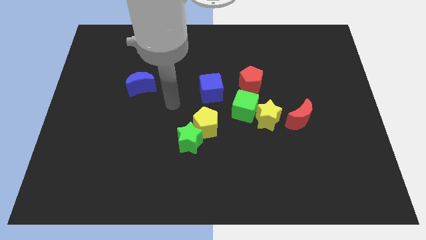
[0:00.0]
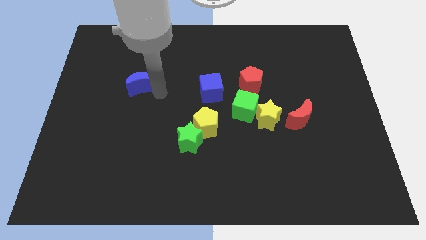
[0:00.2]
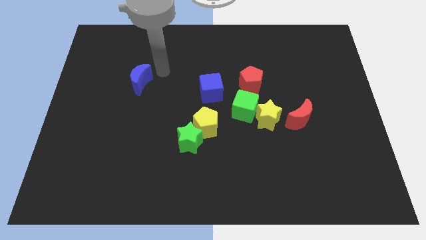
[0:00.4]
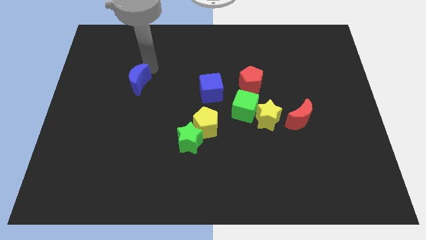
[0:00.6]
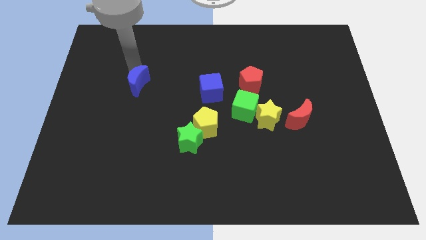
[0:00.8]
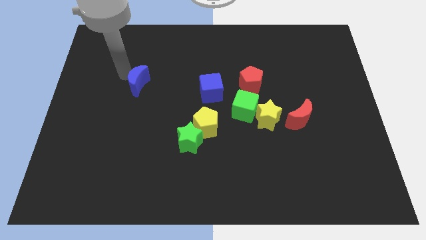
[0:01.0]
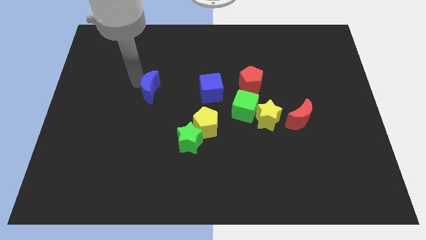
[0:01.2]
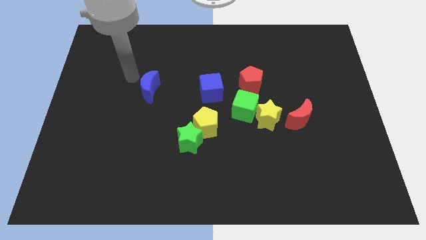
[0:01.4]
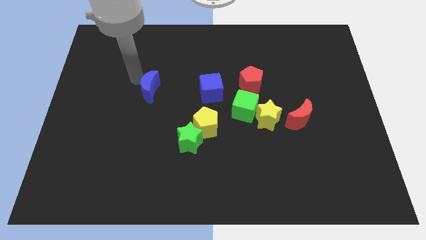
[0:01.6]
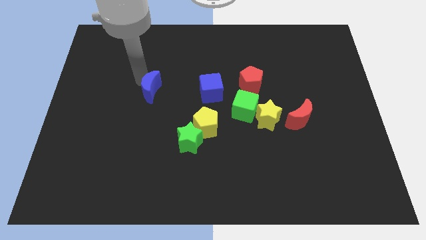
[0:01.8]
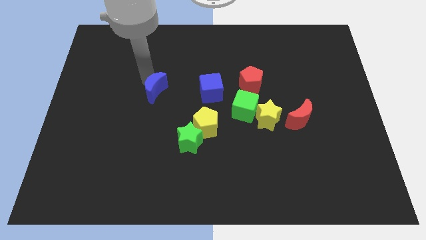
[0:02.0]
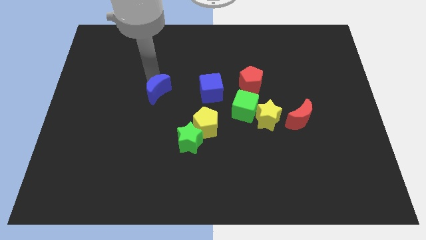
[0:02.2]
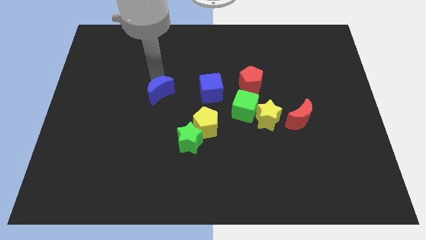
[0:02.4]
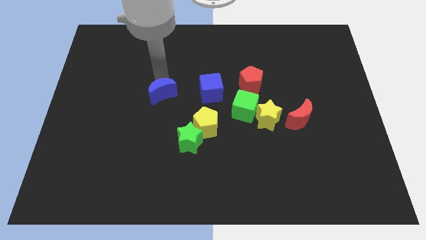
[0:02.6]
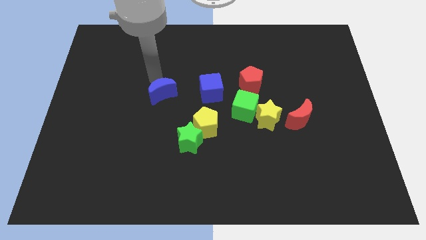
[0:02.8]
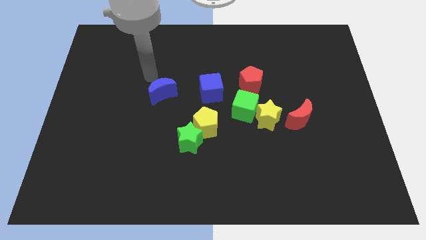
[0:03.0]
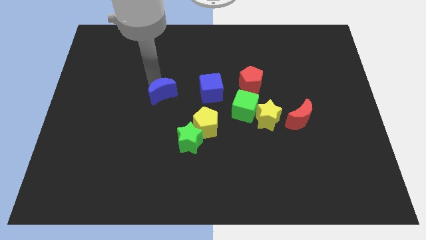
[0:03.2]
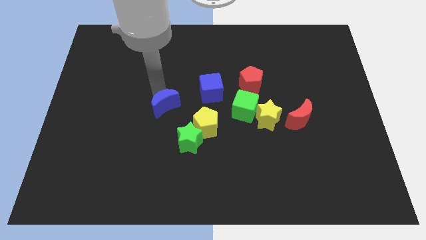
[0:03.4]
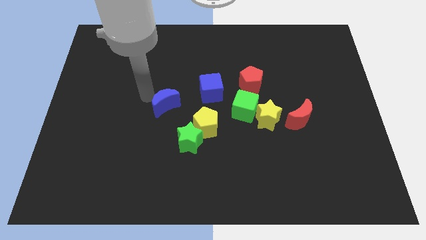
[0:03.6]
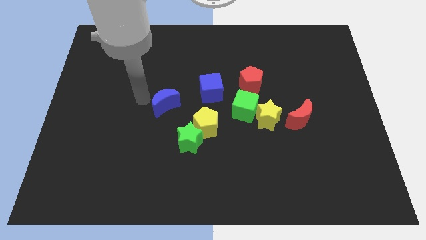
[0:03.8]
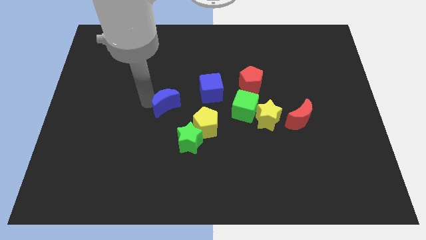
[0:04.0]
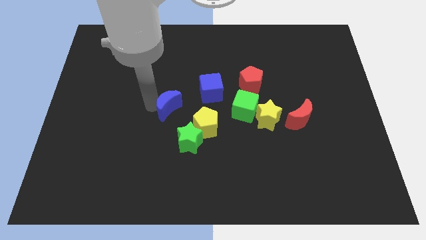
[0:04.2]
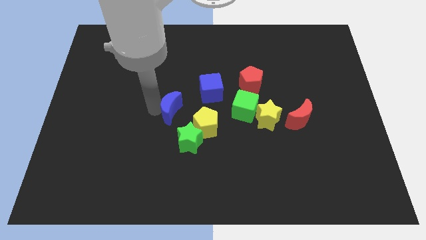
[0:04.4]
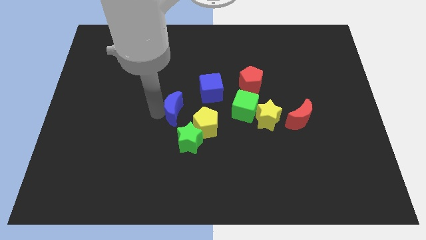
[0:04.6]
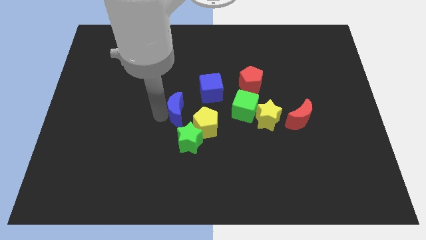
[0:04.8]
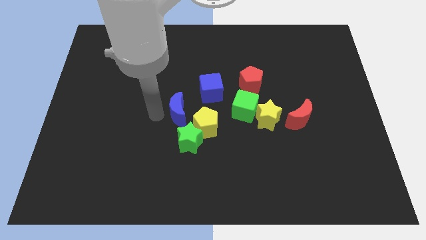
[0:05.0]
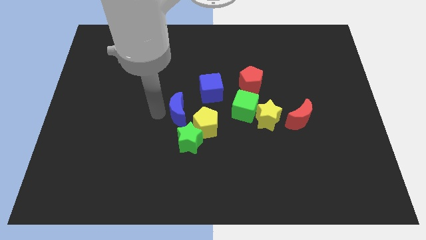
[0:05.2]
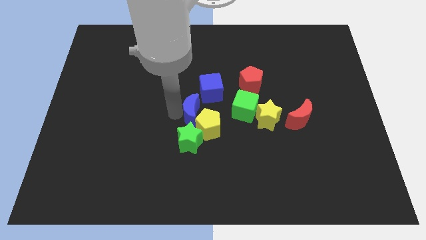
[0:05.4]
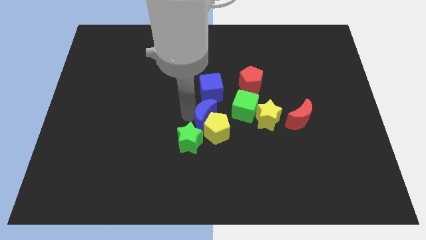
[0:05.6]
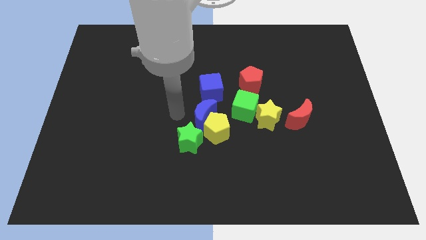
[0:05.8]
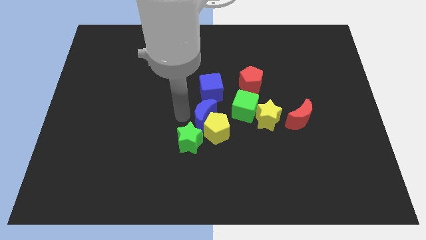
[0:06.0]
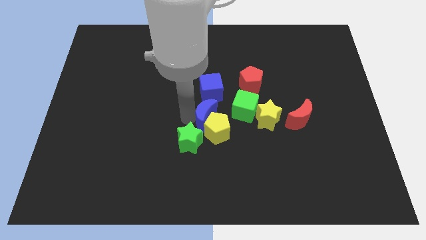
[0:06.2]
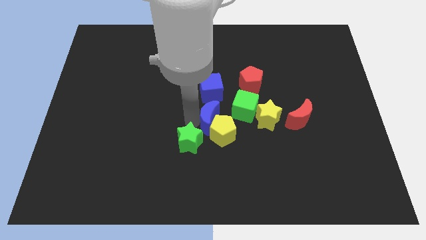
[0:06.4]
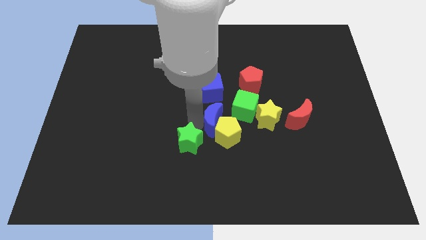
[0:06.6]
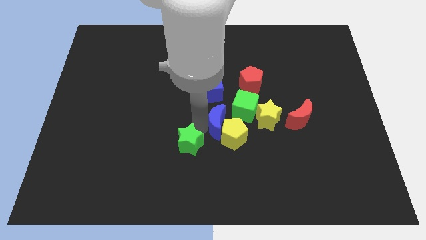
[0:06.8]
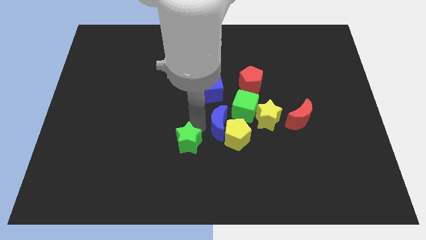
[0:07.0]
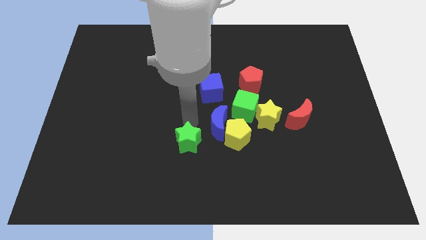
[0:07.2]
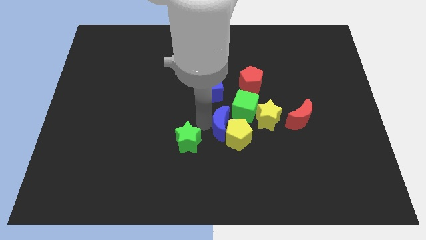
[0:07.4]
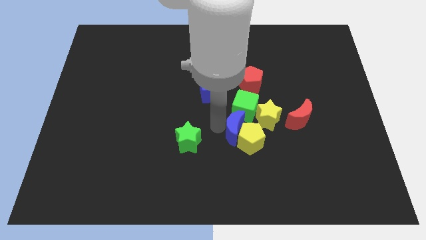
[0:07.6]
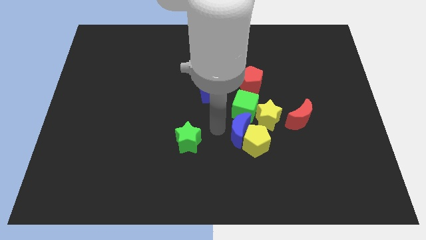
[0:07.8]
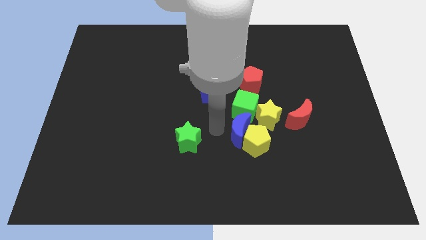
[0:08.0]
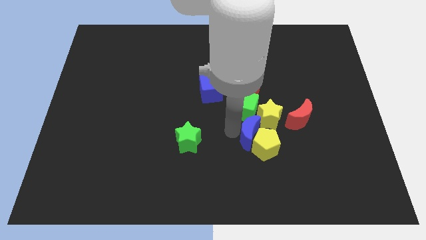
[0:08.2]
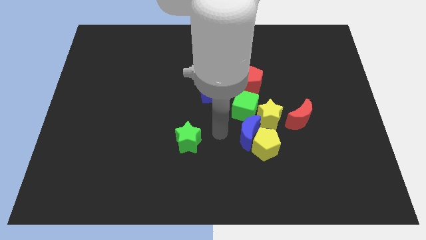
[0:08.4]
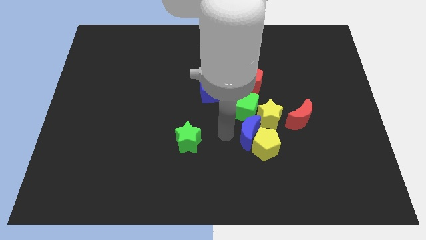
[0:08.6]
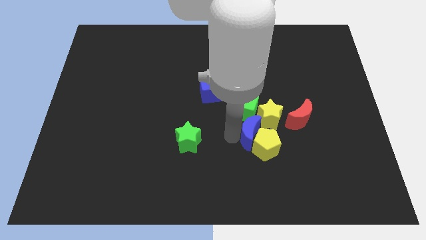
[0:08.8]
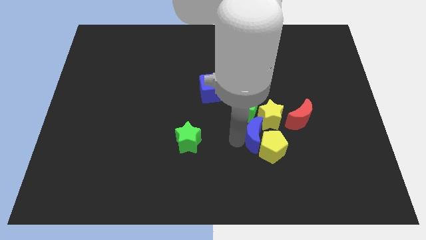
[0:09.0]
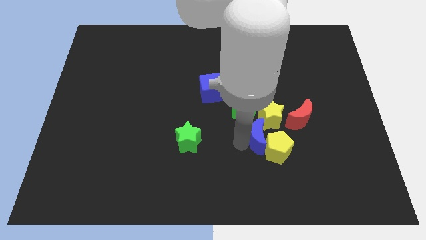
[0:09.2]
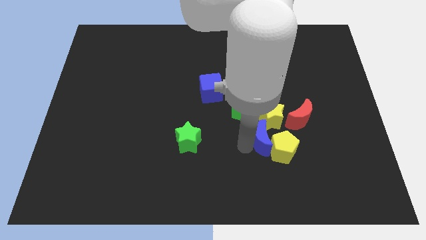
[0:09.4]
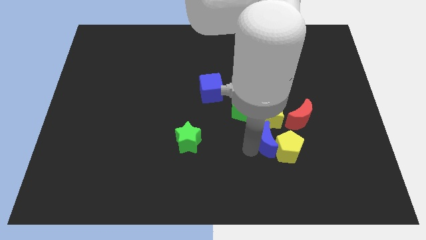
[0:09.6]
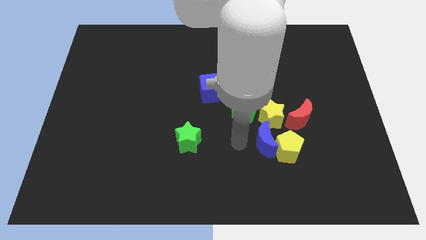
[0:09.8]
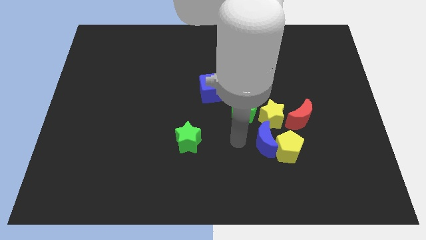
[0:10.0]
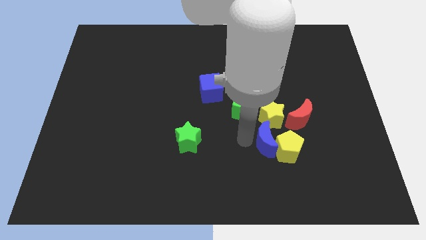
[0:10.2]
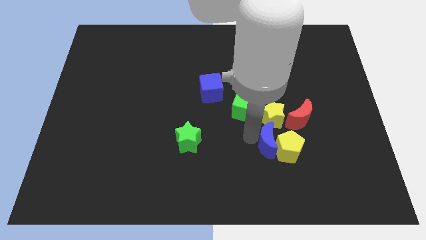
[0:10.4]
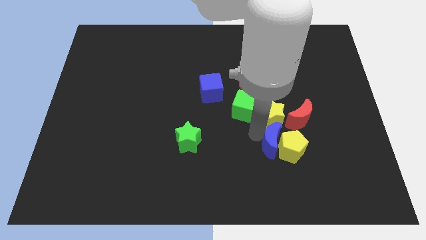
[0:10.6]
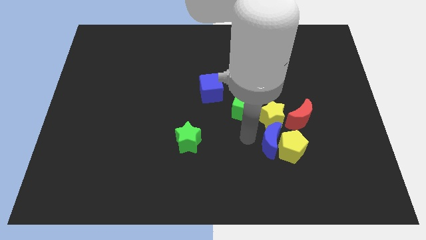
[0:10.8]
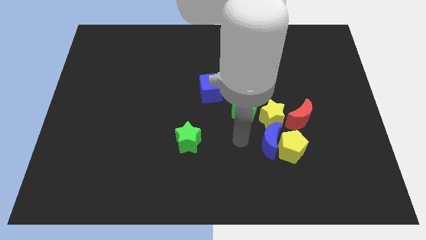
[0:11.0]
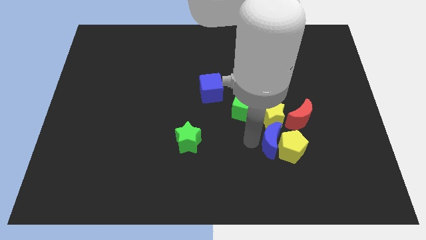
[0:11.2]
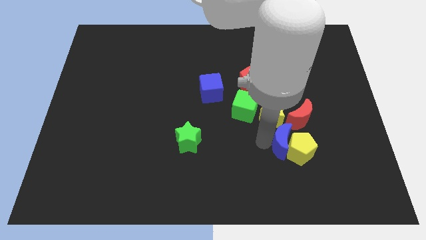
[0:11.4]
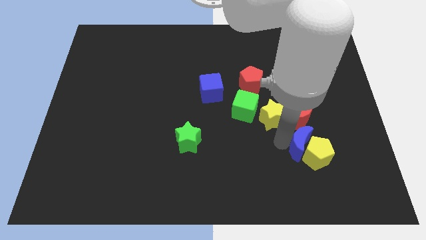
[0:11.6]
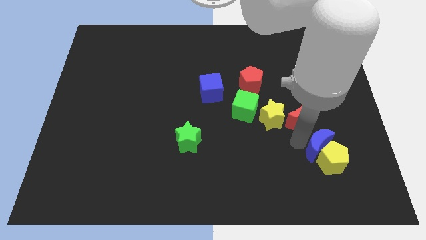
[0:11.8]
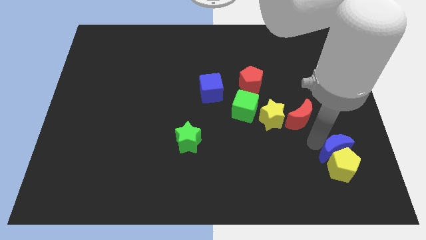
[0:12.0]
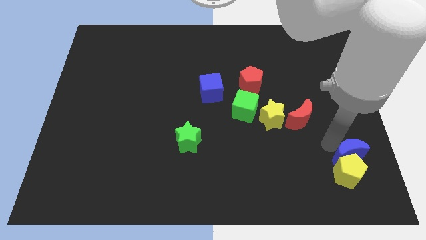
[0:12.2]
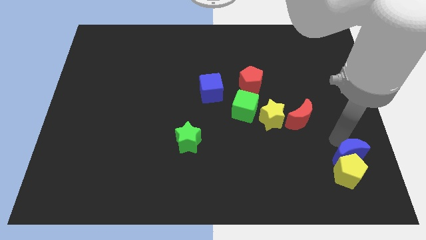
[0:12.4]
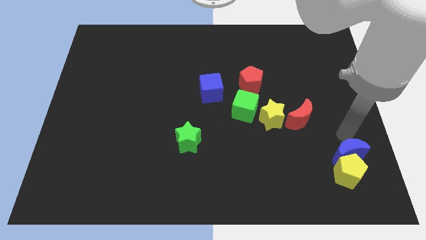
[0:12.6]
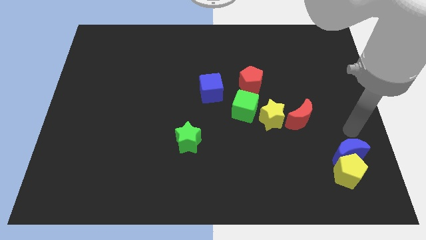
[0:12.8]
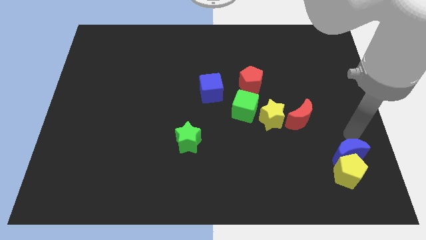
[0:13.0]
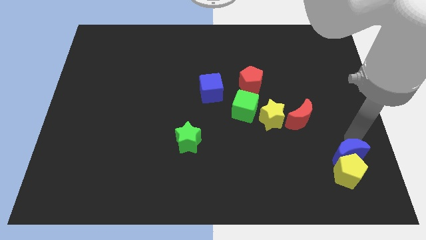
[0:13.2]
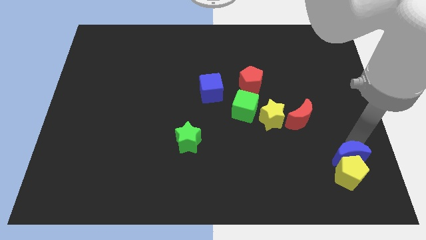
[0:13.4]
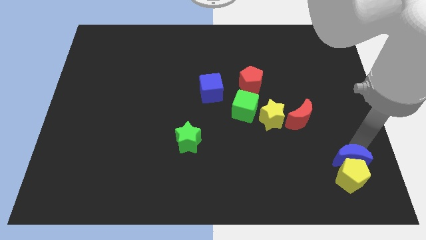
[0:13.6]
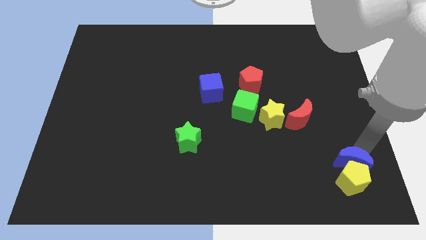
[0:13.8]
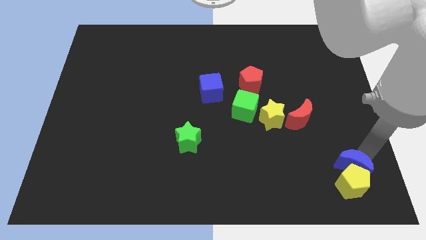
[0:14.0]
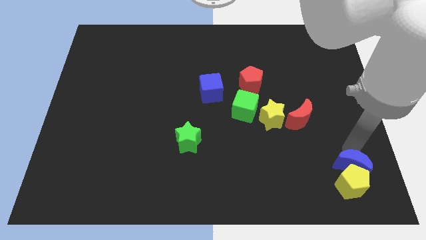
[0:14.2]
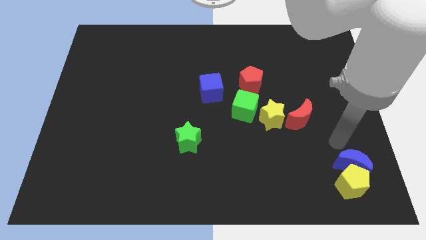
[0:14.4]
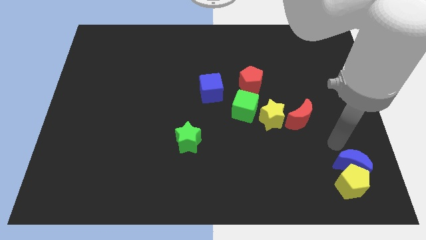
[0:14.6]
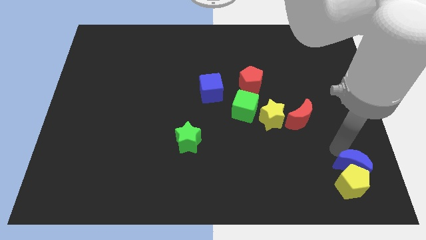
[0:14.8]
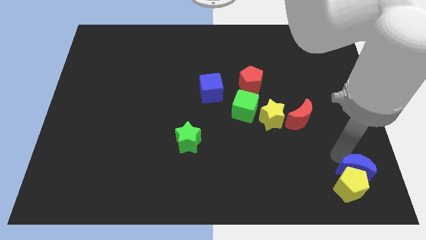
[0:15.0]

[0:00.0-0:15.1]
move the blue moon to the bottom right of the board
